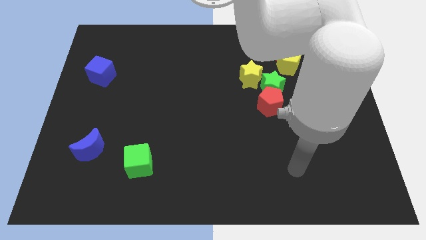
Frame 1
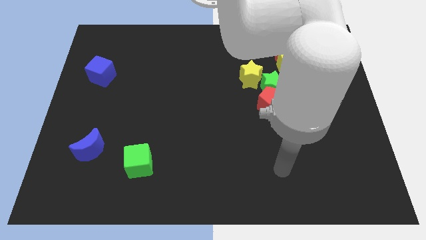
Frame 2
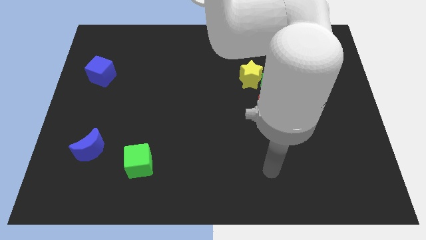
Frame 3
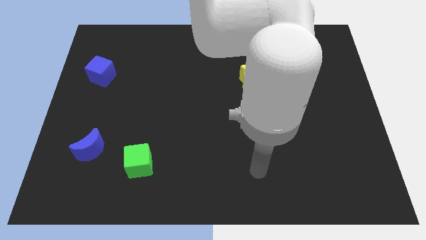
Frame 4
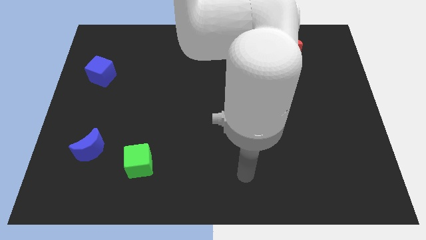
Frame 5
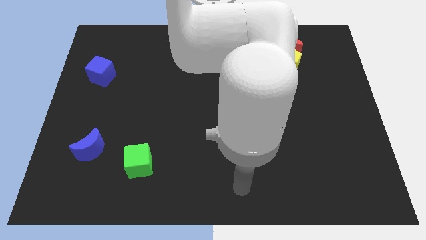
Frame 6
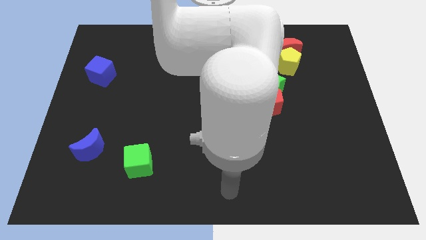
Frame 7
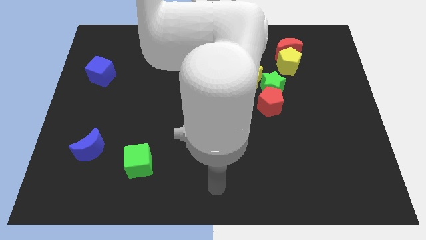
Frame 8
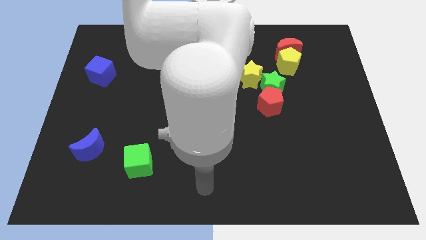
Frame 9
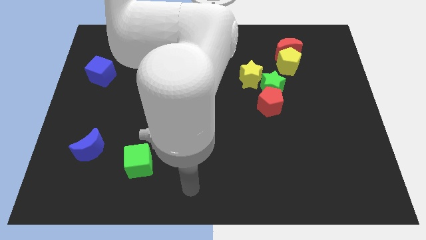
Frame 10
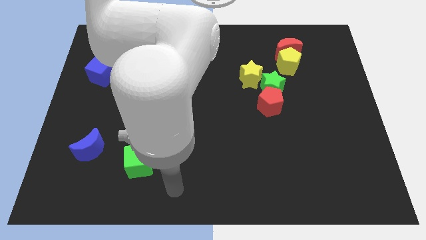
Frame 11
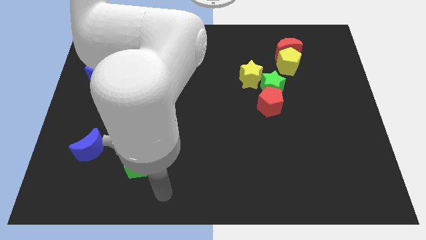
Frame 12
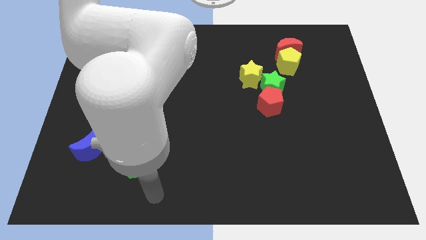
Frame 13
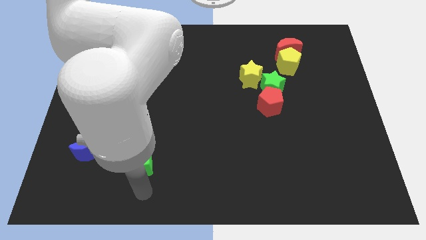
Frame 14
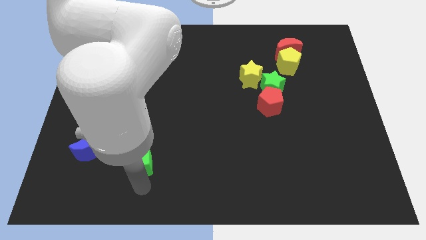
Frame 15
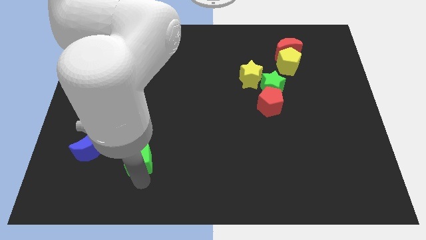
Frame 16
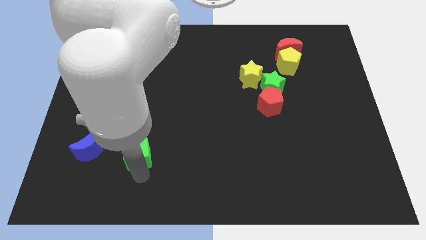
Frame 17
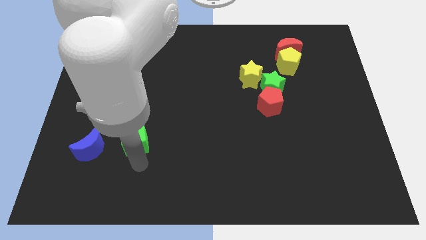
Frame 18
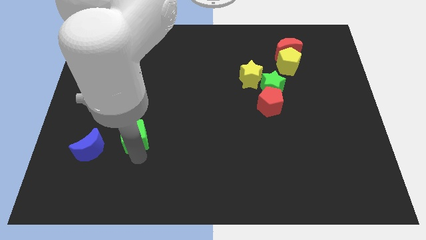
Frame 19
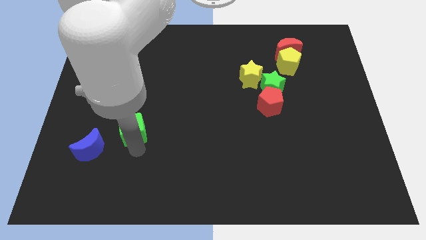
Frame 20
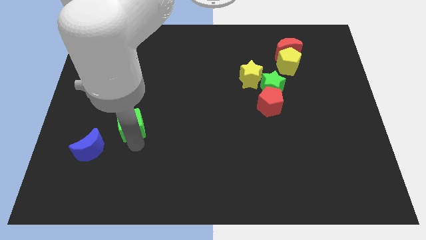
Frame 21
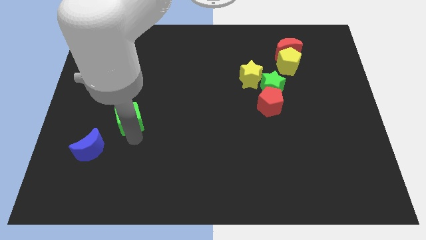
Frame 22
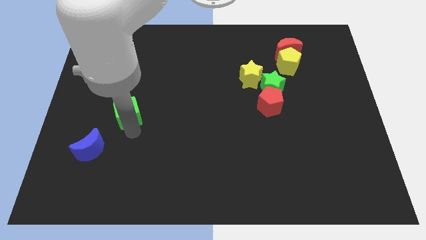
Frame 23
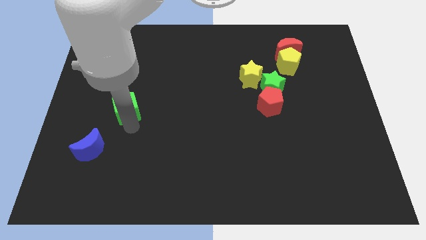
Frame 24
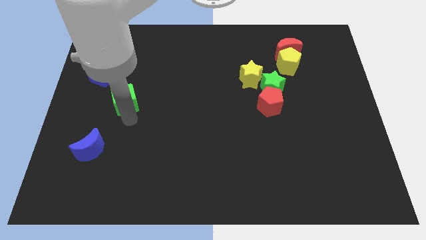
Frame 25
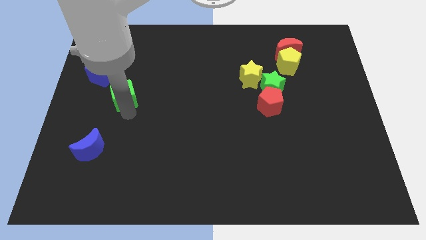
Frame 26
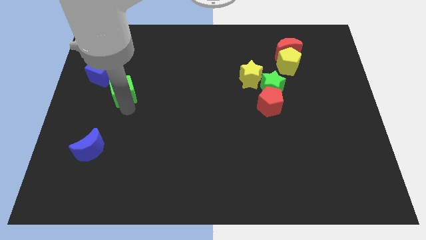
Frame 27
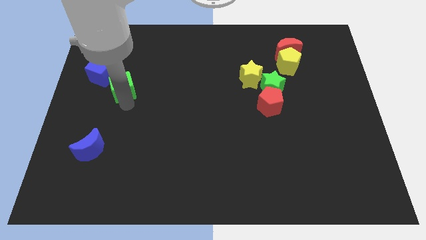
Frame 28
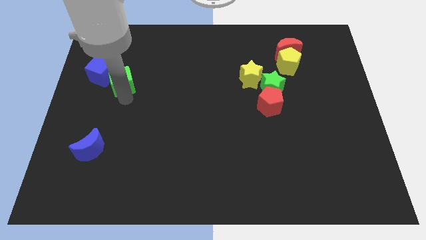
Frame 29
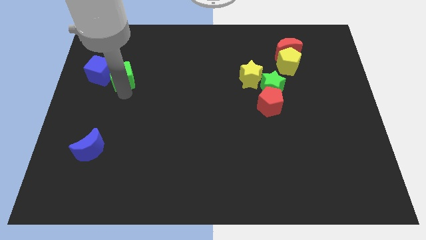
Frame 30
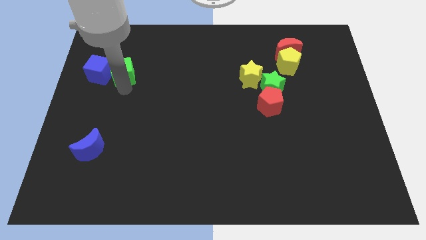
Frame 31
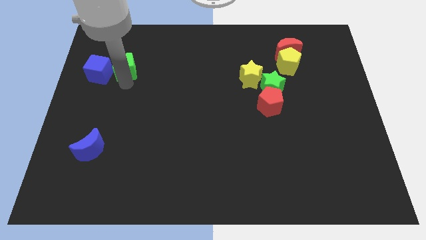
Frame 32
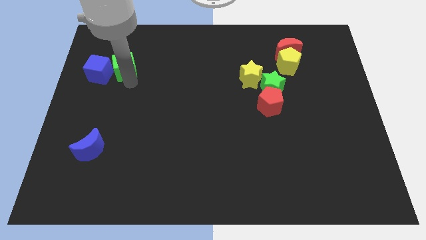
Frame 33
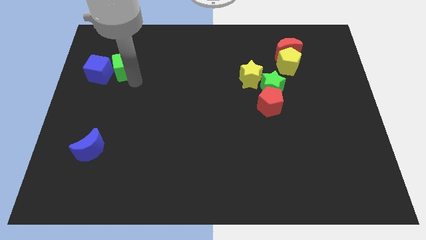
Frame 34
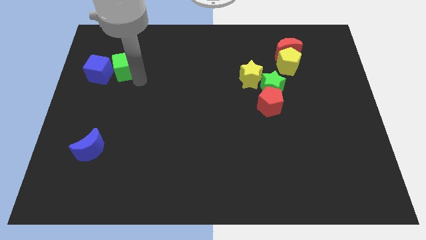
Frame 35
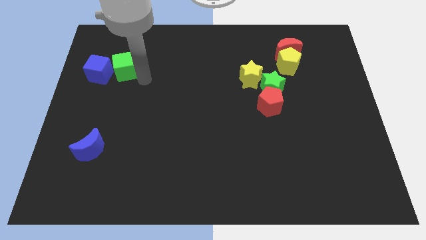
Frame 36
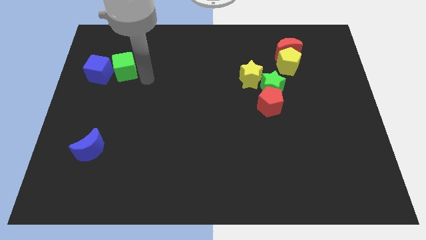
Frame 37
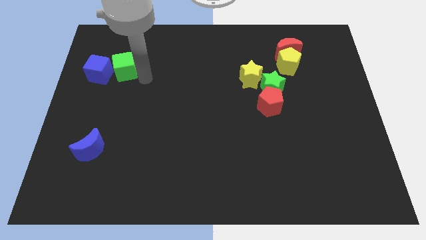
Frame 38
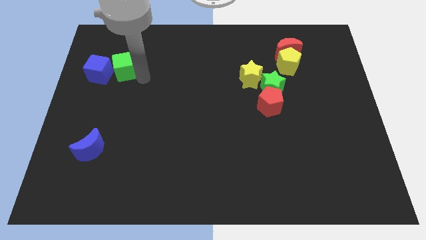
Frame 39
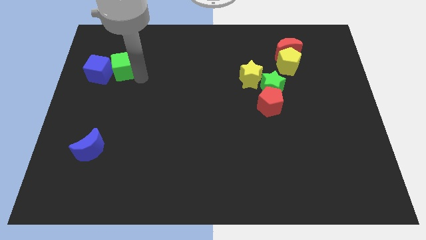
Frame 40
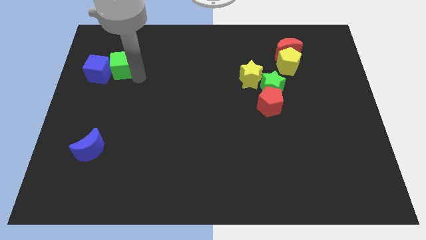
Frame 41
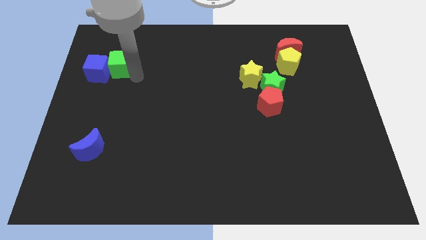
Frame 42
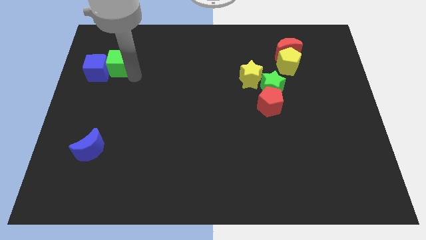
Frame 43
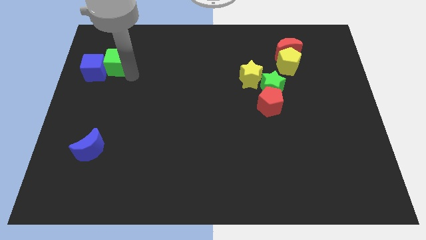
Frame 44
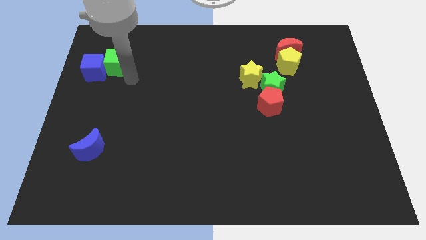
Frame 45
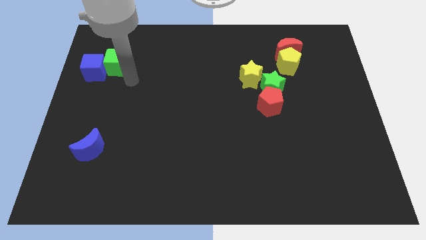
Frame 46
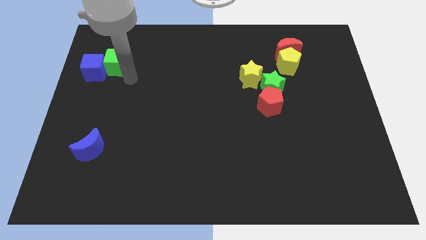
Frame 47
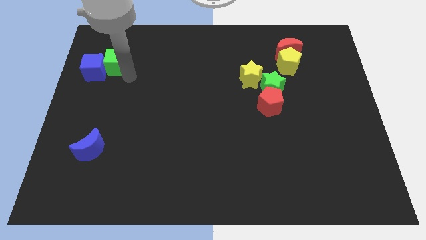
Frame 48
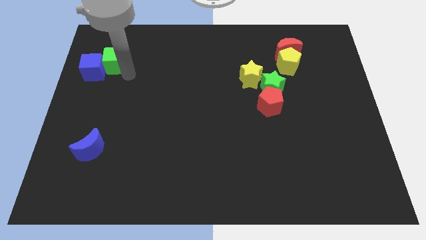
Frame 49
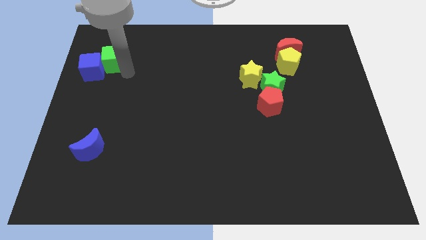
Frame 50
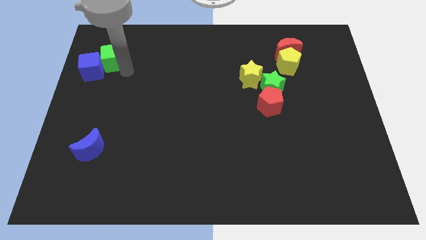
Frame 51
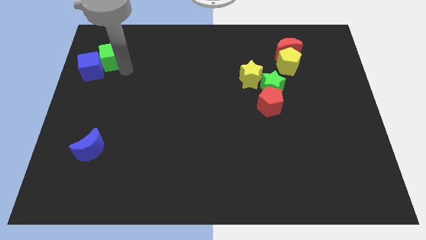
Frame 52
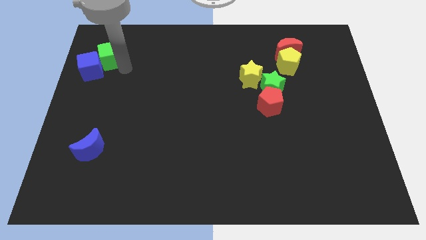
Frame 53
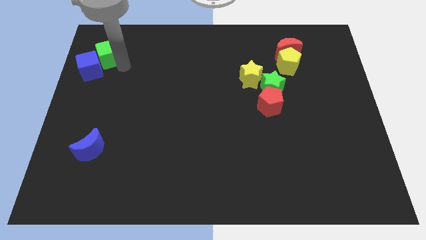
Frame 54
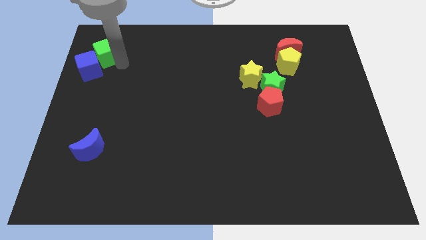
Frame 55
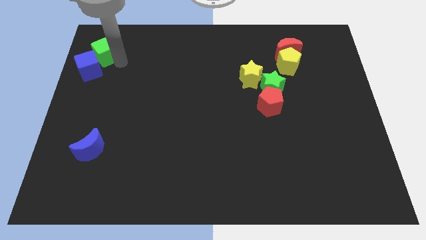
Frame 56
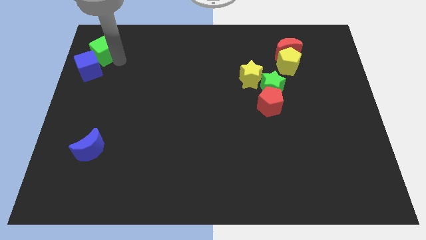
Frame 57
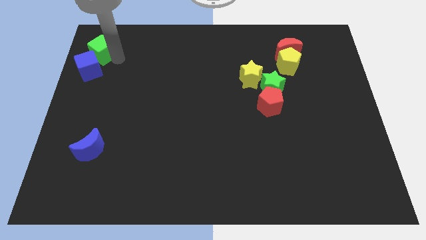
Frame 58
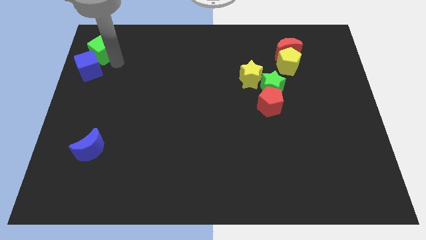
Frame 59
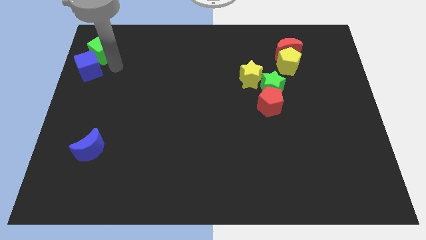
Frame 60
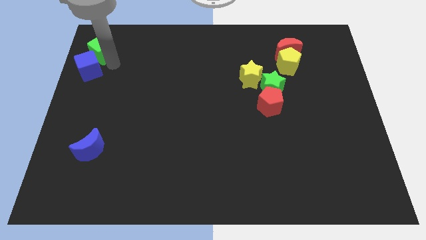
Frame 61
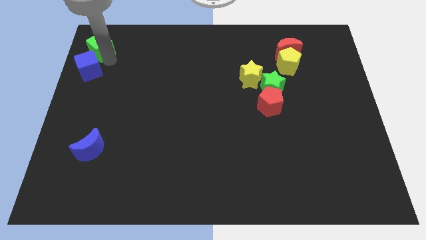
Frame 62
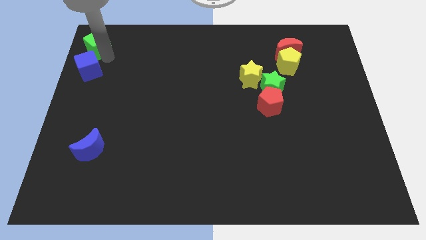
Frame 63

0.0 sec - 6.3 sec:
put the green cube to the top left of the board

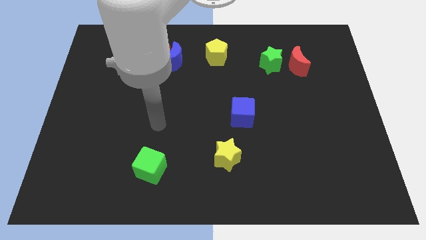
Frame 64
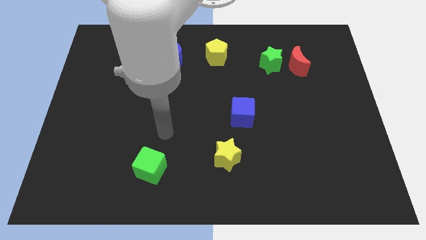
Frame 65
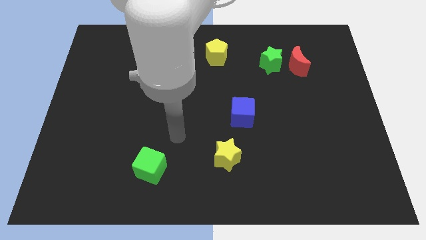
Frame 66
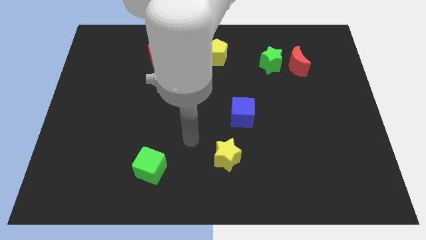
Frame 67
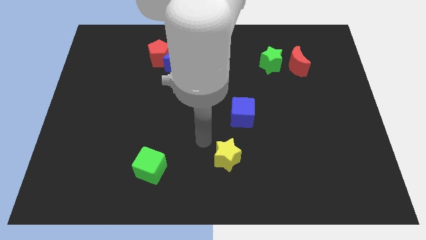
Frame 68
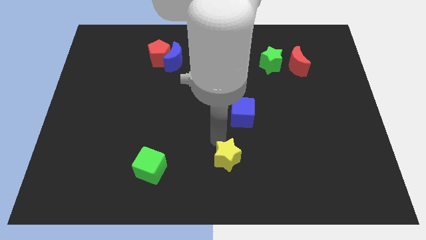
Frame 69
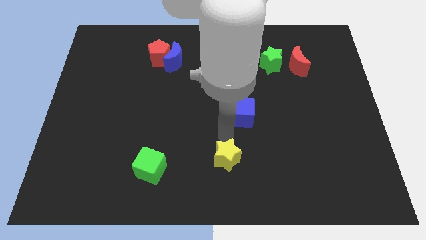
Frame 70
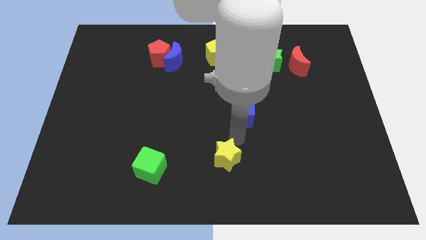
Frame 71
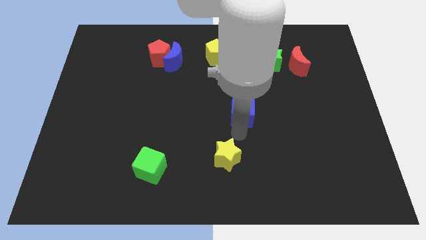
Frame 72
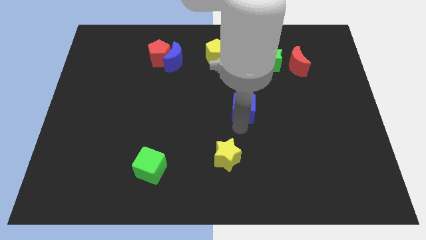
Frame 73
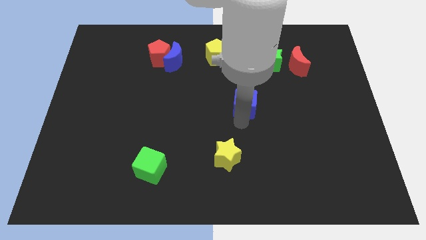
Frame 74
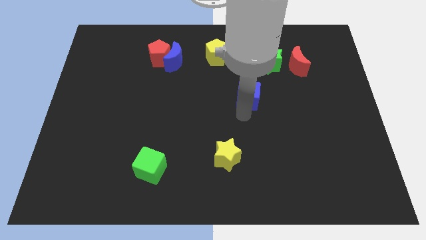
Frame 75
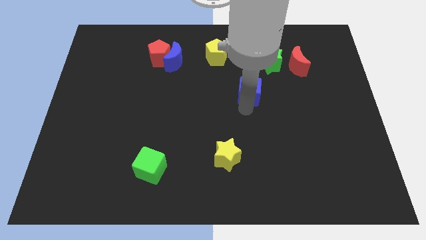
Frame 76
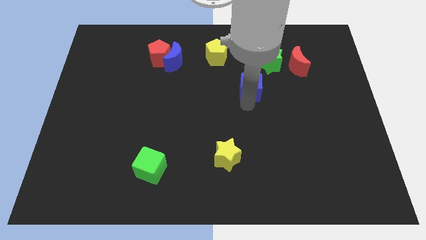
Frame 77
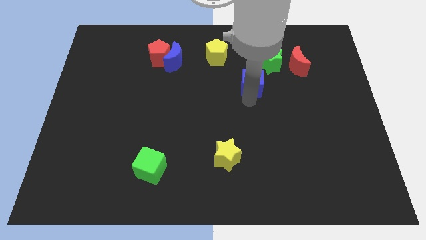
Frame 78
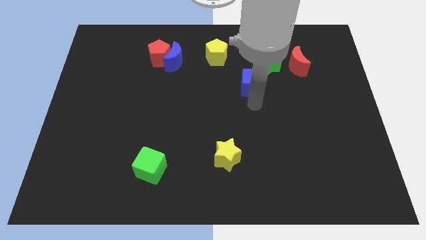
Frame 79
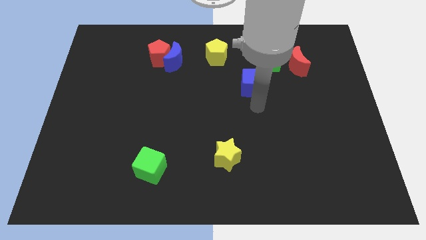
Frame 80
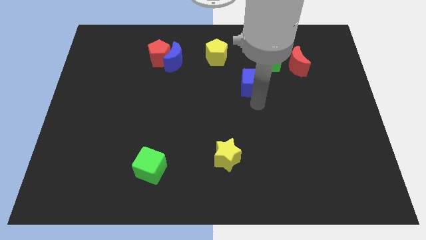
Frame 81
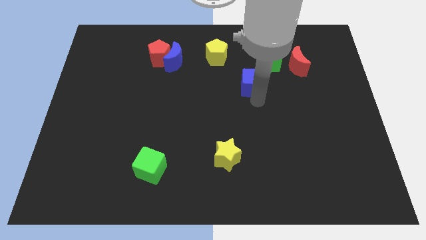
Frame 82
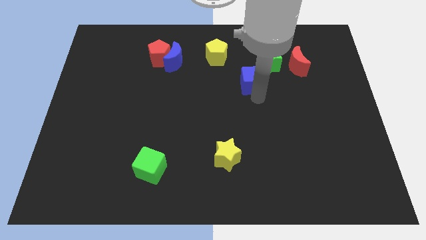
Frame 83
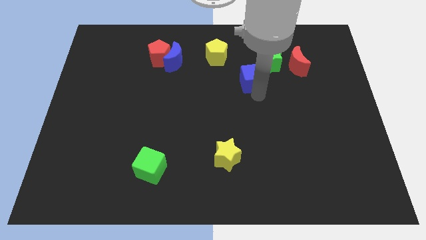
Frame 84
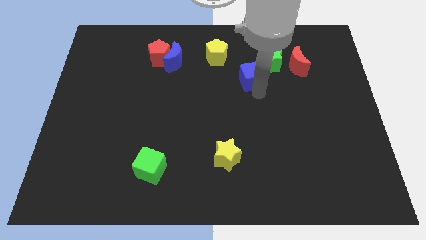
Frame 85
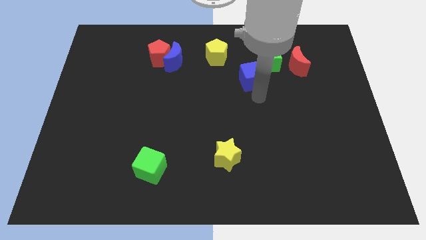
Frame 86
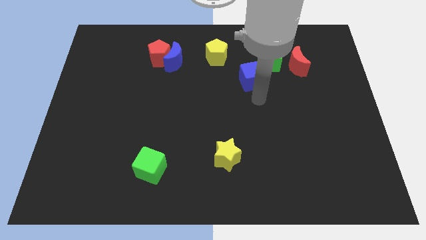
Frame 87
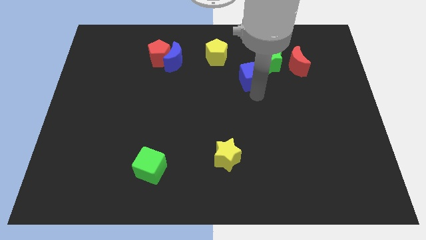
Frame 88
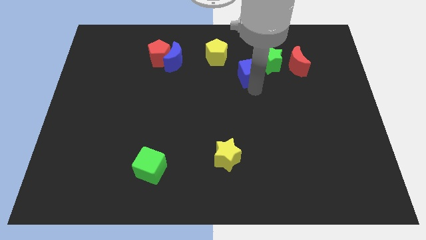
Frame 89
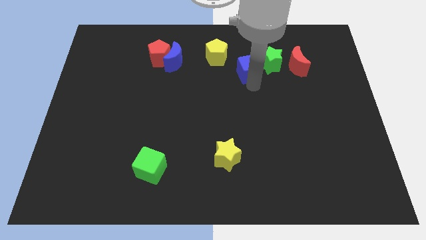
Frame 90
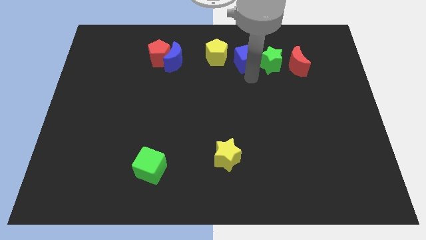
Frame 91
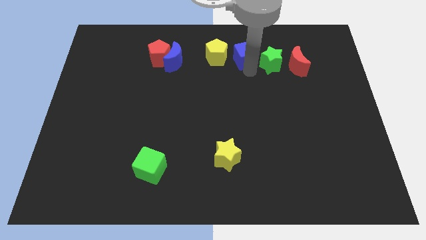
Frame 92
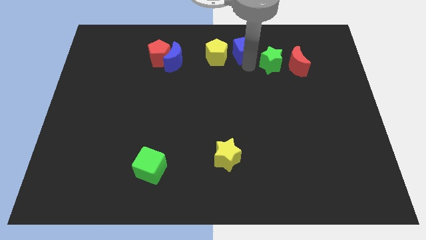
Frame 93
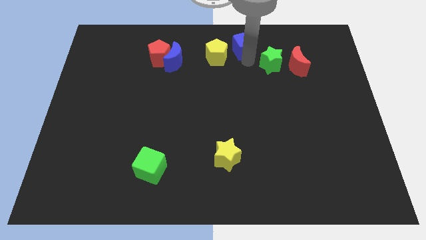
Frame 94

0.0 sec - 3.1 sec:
slide the blue cube to the top side
